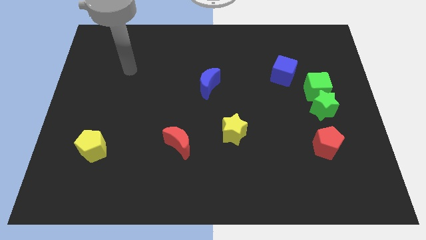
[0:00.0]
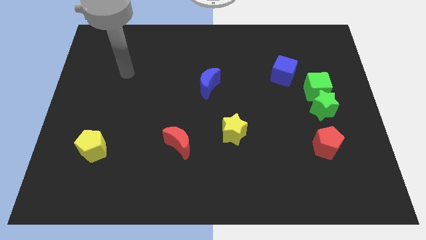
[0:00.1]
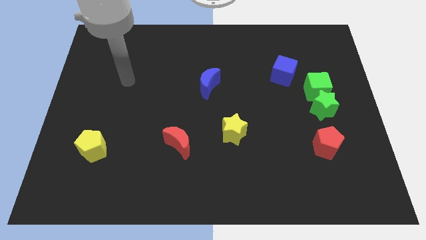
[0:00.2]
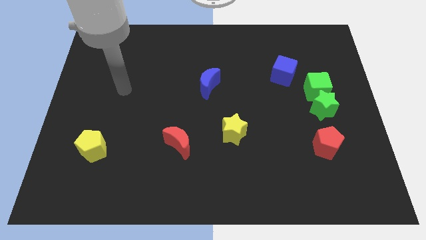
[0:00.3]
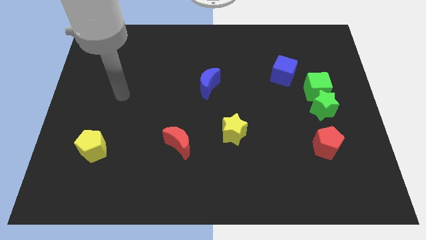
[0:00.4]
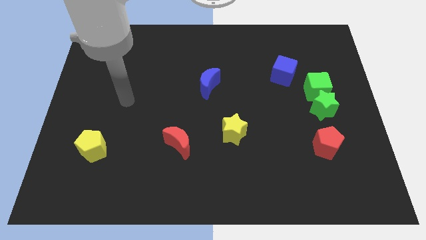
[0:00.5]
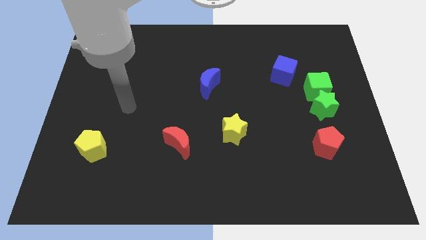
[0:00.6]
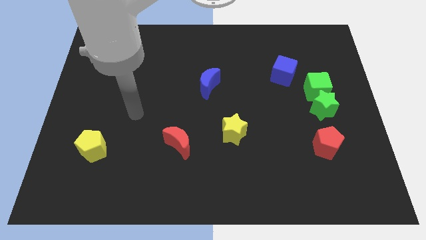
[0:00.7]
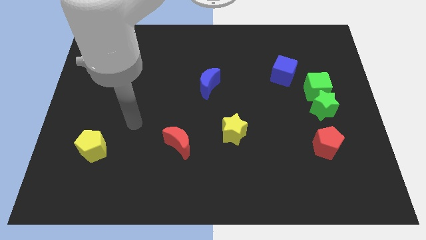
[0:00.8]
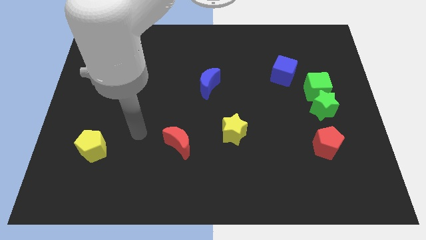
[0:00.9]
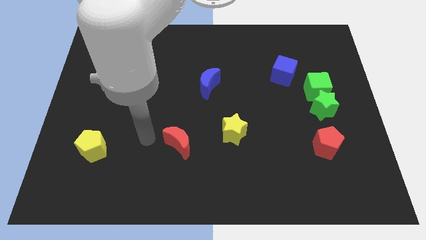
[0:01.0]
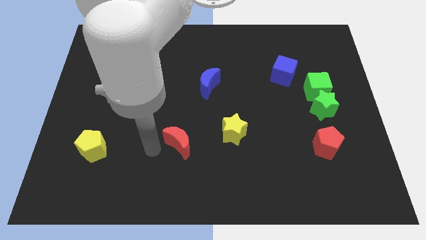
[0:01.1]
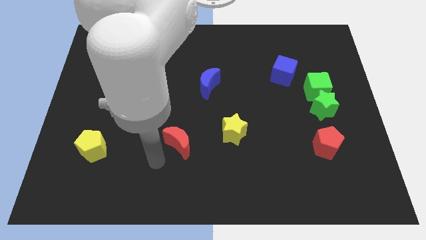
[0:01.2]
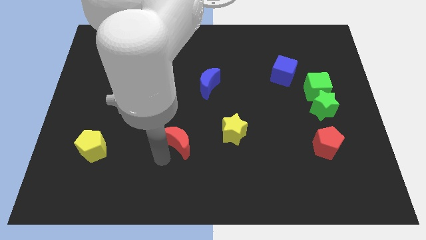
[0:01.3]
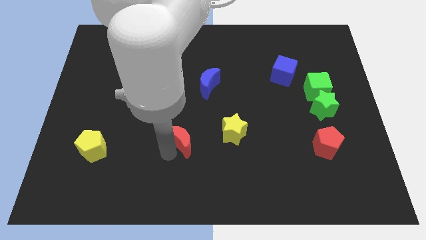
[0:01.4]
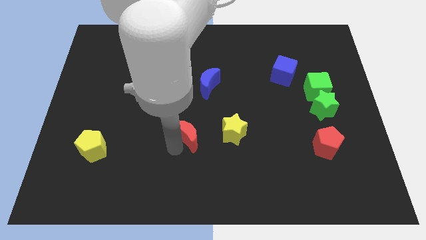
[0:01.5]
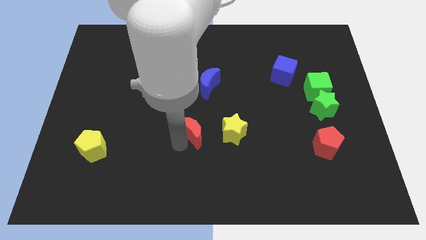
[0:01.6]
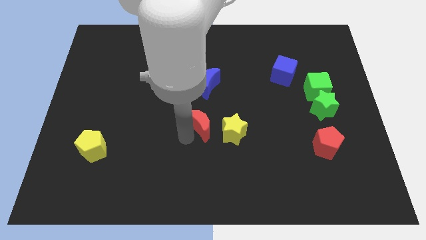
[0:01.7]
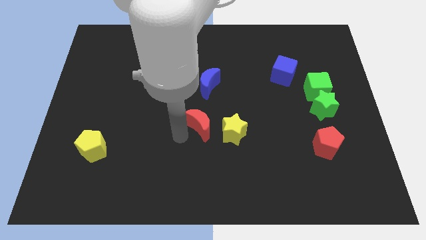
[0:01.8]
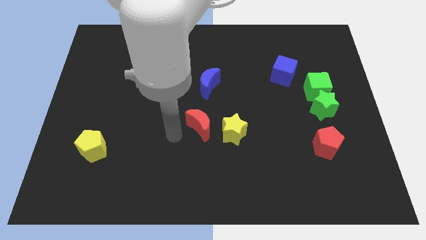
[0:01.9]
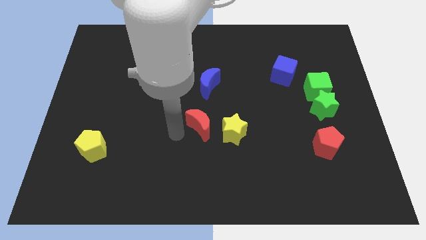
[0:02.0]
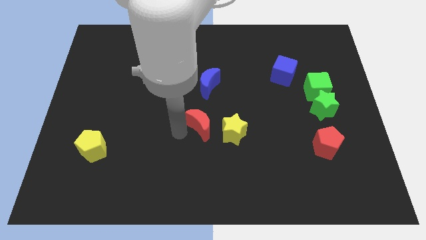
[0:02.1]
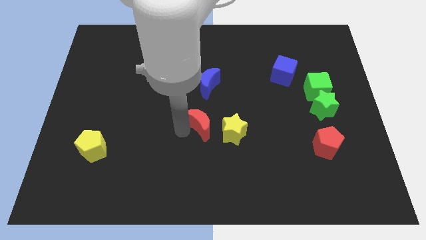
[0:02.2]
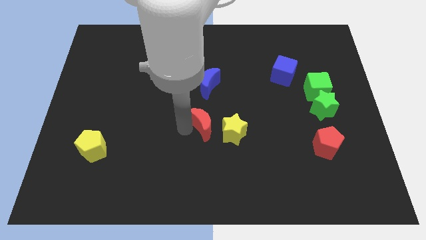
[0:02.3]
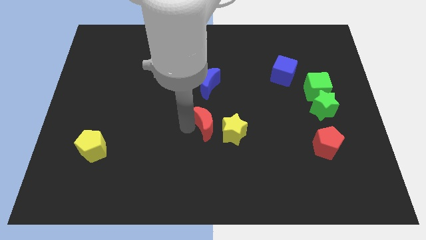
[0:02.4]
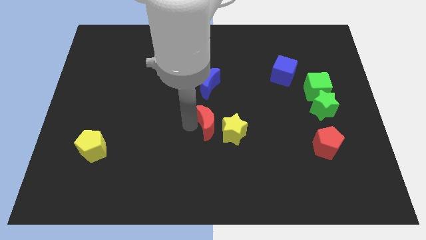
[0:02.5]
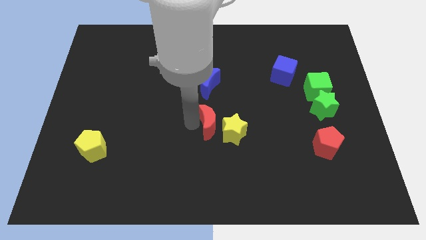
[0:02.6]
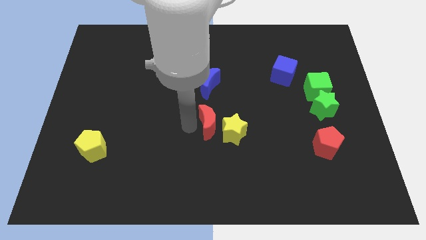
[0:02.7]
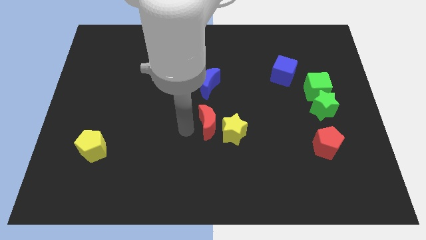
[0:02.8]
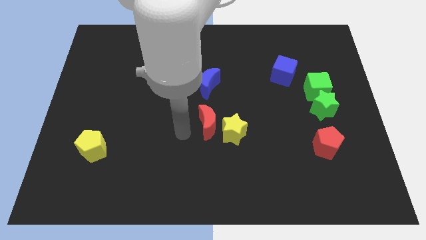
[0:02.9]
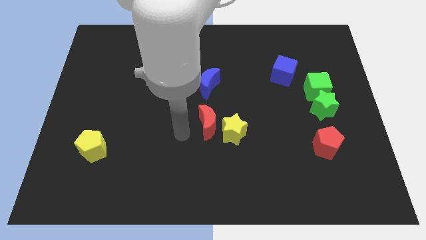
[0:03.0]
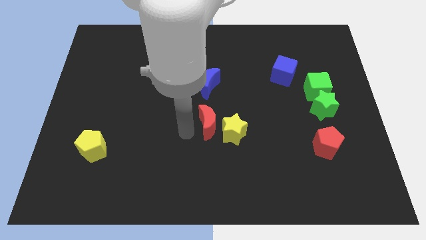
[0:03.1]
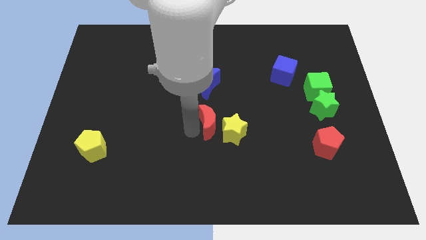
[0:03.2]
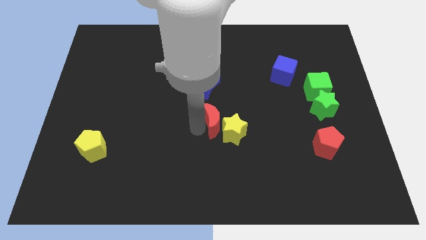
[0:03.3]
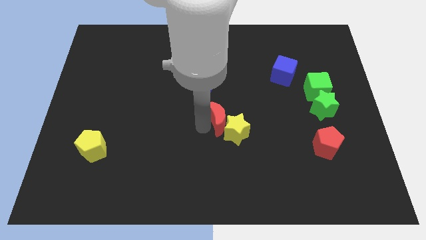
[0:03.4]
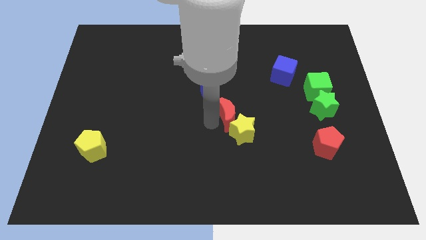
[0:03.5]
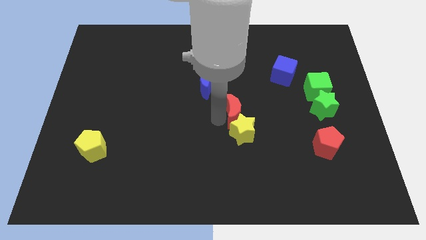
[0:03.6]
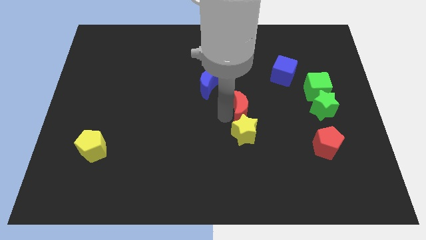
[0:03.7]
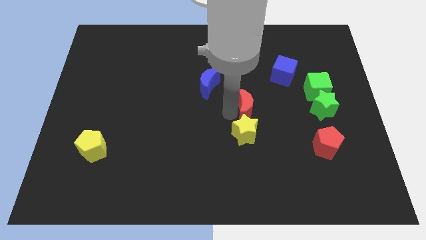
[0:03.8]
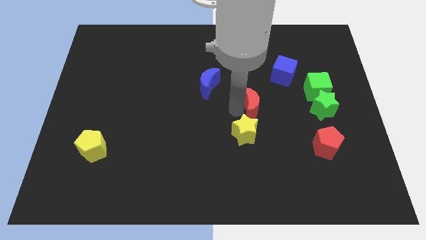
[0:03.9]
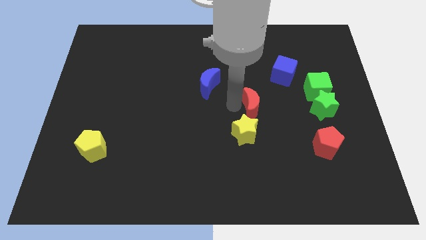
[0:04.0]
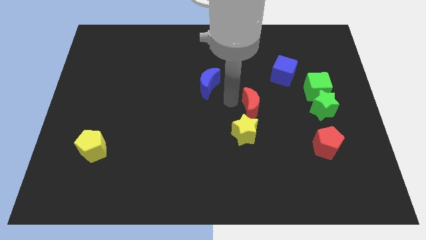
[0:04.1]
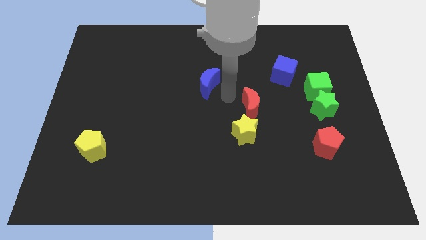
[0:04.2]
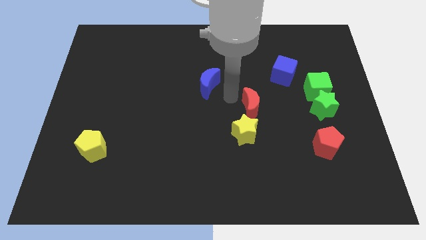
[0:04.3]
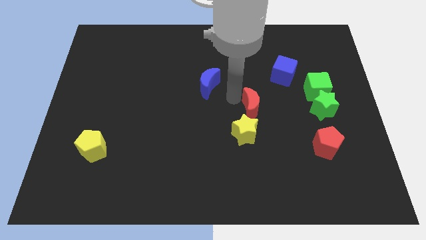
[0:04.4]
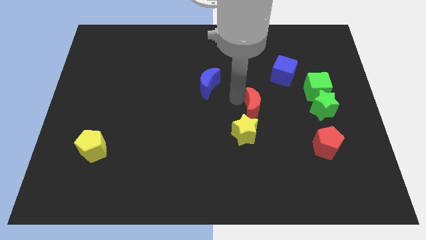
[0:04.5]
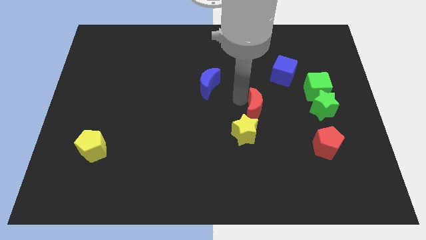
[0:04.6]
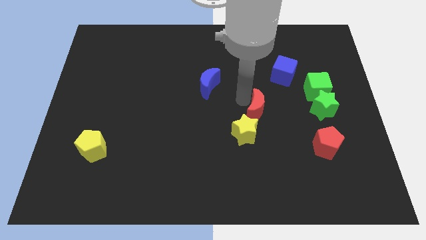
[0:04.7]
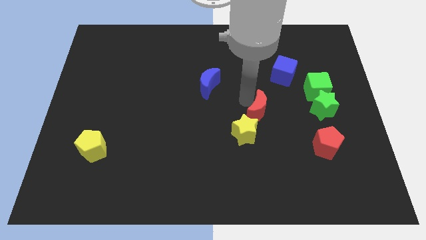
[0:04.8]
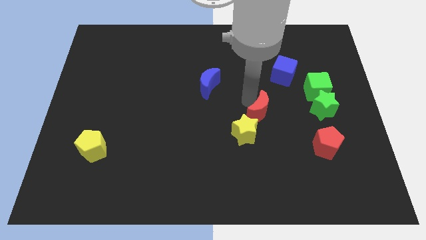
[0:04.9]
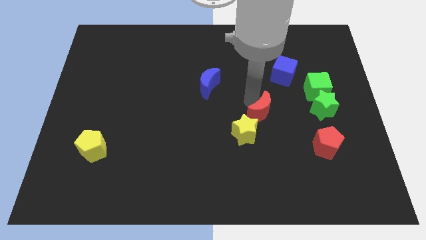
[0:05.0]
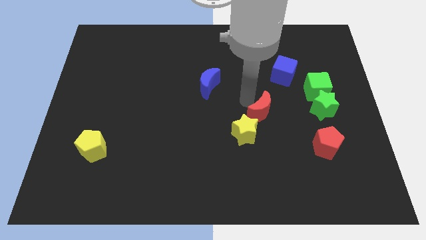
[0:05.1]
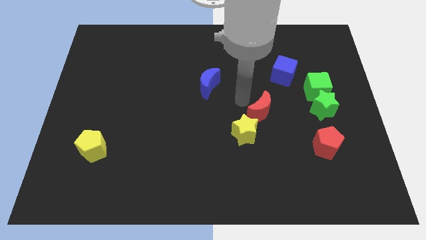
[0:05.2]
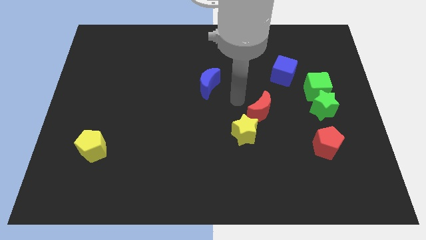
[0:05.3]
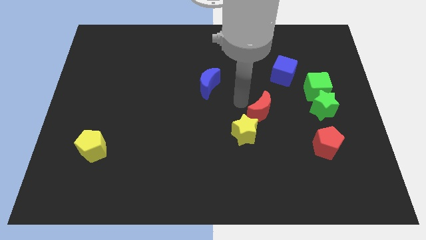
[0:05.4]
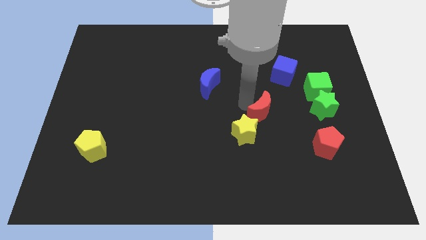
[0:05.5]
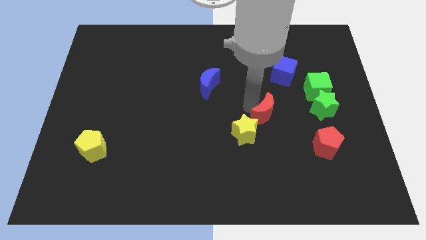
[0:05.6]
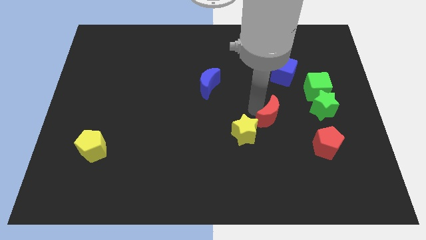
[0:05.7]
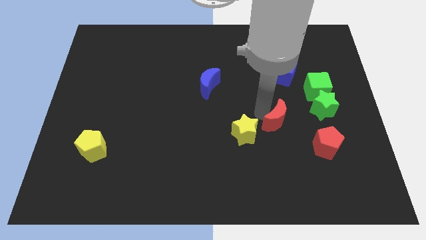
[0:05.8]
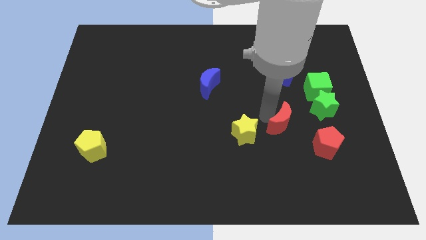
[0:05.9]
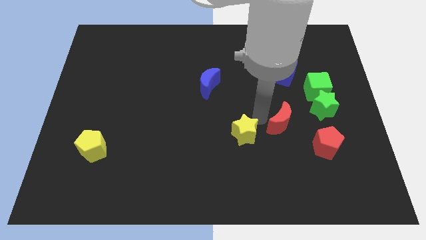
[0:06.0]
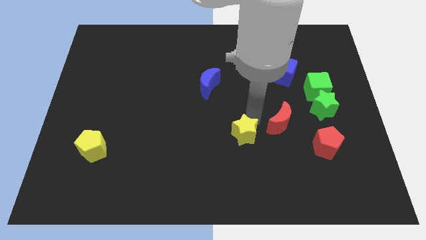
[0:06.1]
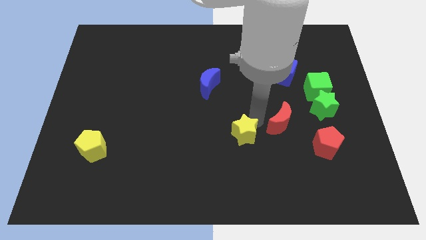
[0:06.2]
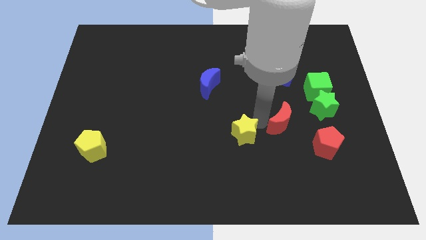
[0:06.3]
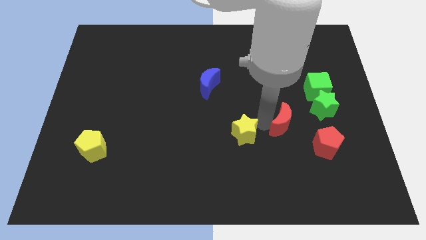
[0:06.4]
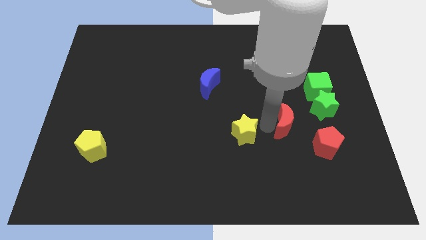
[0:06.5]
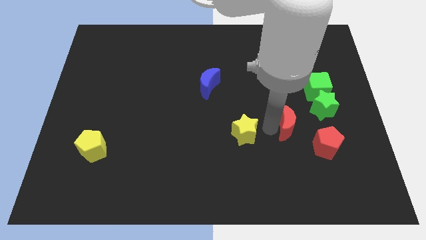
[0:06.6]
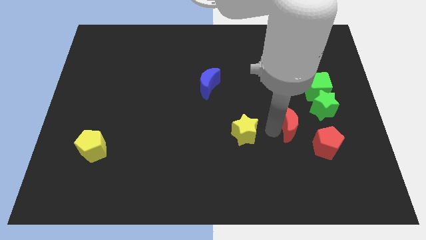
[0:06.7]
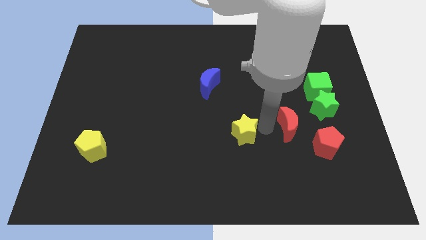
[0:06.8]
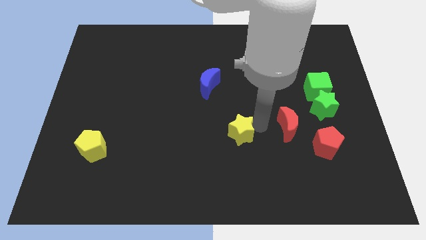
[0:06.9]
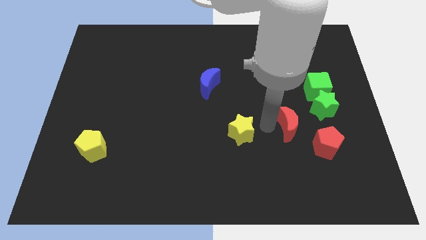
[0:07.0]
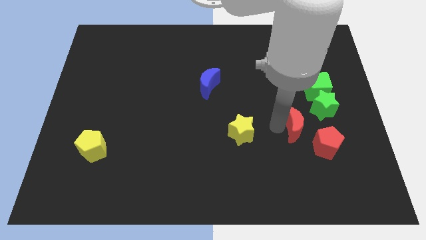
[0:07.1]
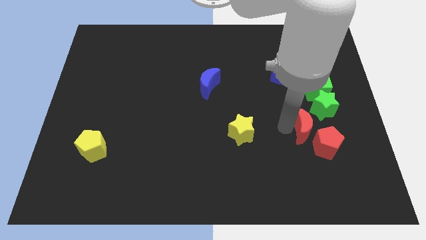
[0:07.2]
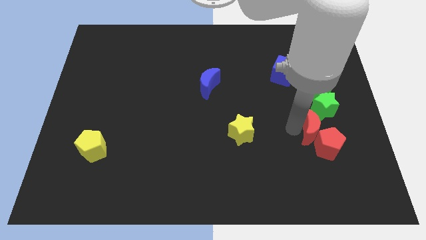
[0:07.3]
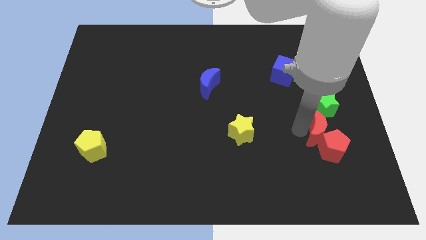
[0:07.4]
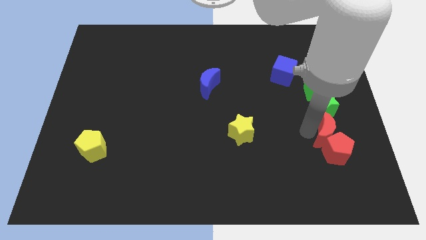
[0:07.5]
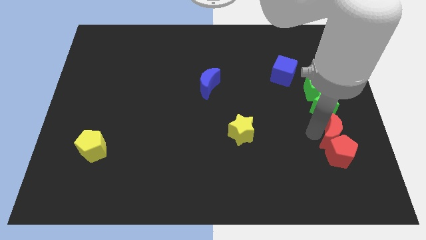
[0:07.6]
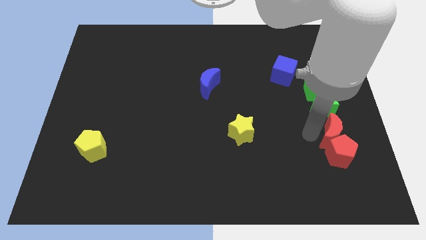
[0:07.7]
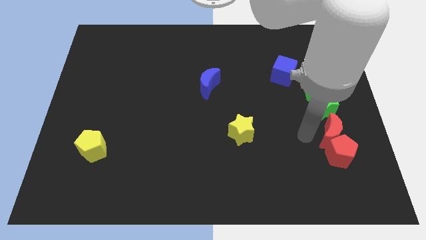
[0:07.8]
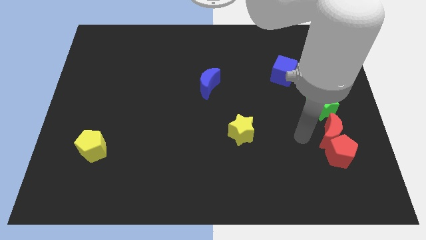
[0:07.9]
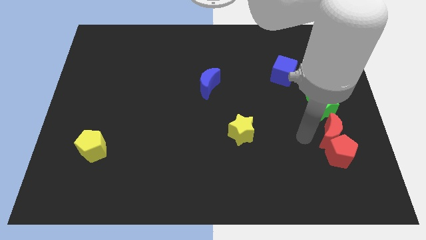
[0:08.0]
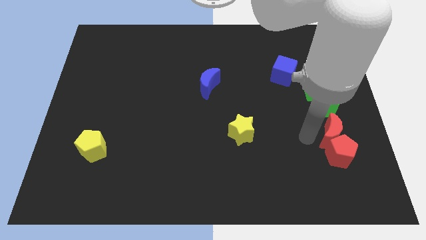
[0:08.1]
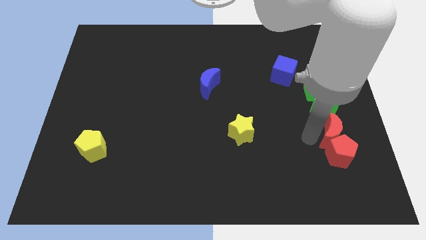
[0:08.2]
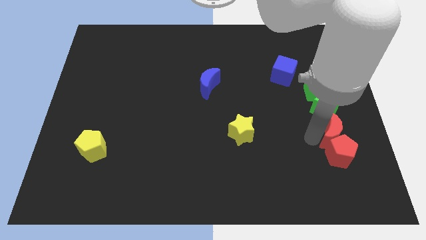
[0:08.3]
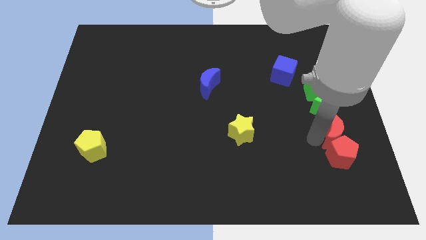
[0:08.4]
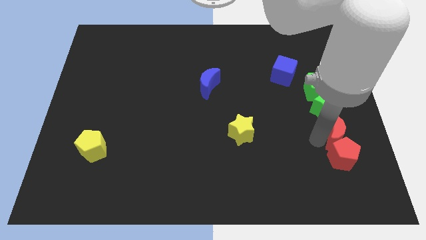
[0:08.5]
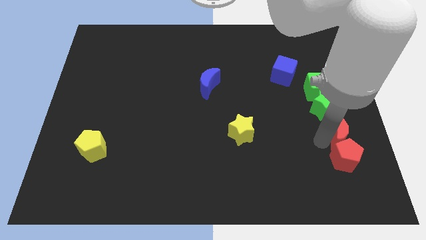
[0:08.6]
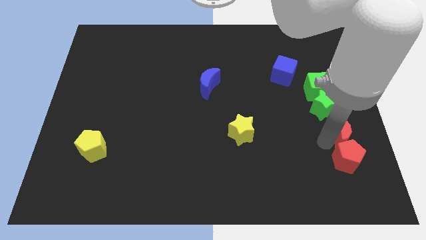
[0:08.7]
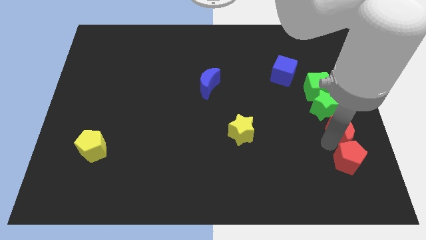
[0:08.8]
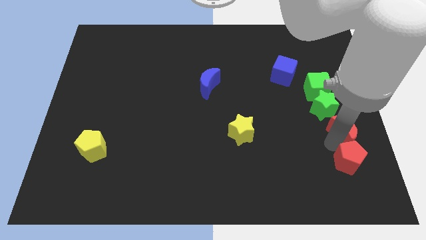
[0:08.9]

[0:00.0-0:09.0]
move the red moon to the right side of the board
